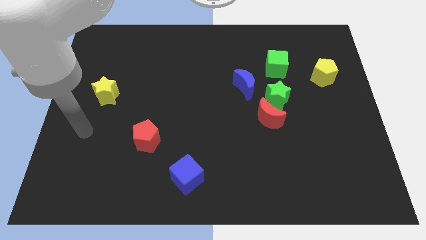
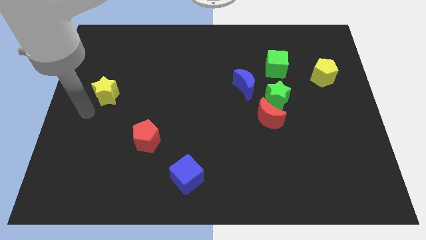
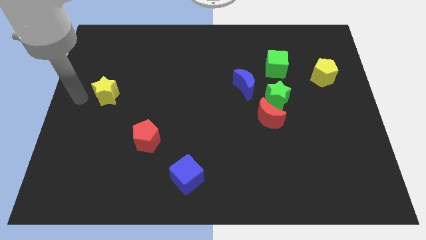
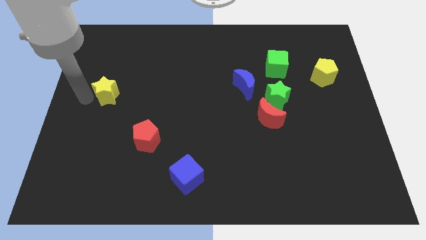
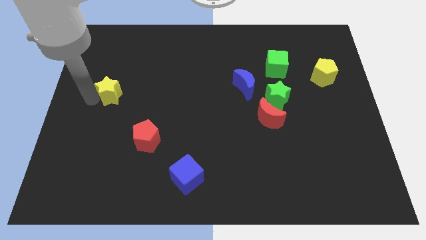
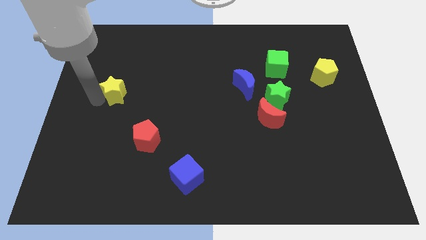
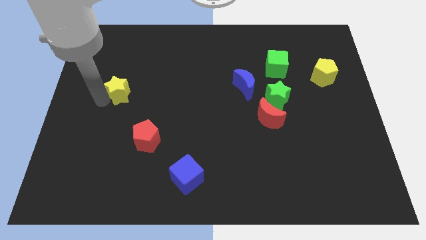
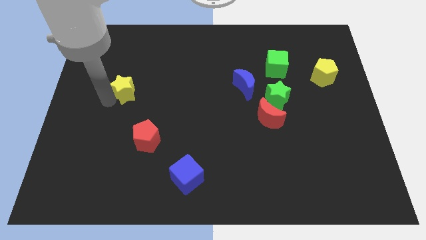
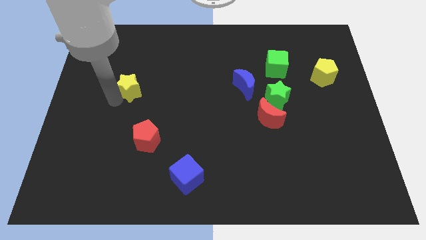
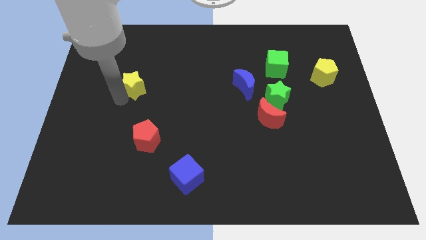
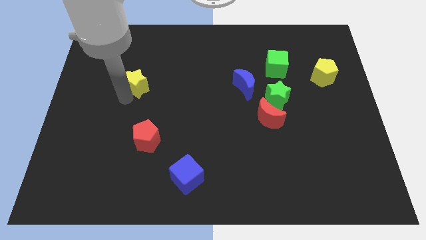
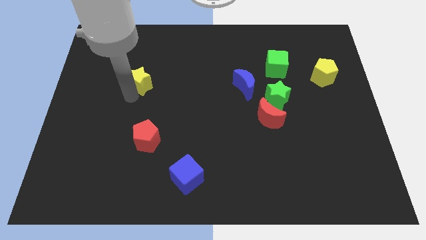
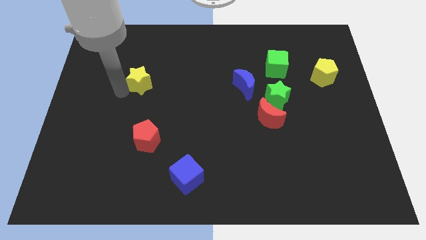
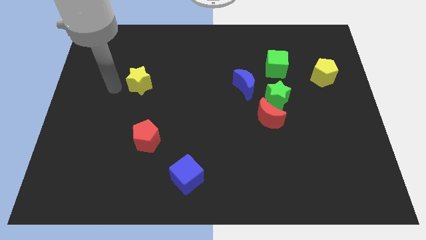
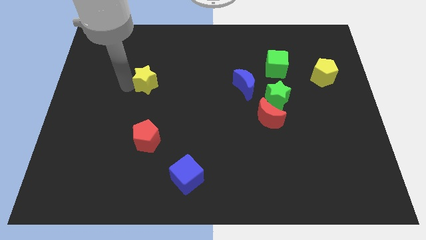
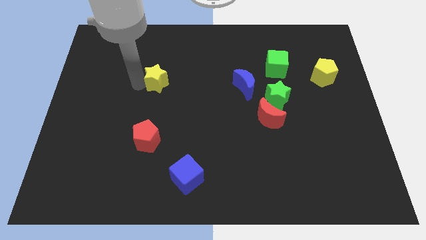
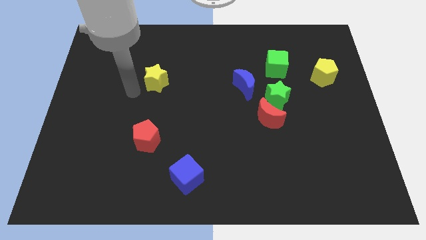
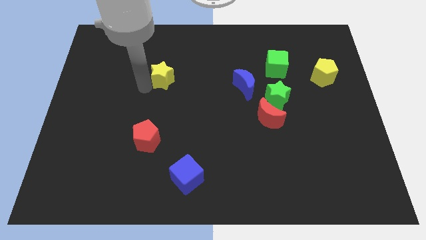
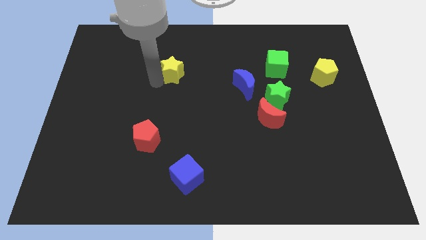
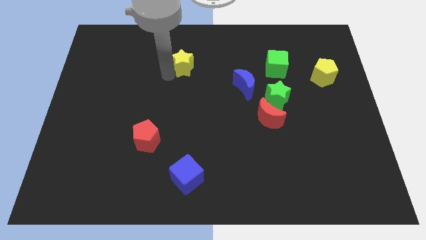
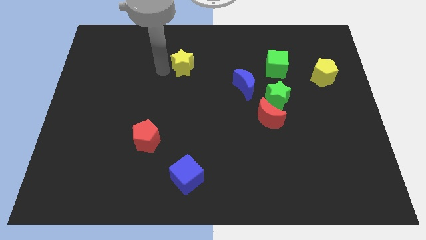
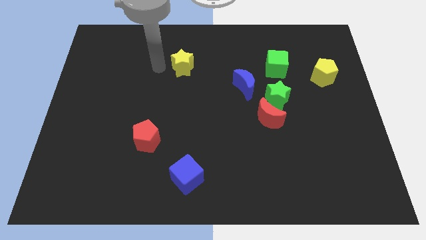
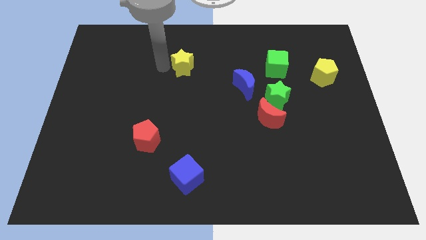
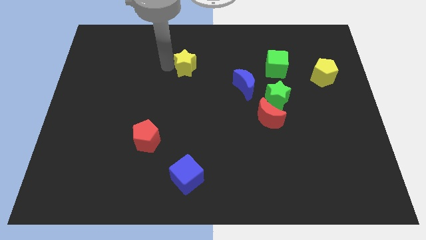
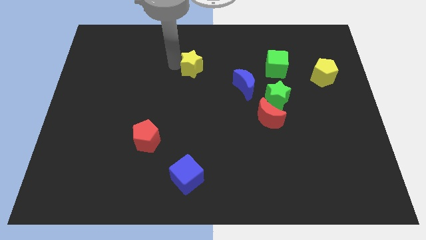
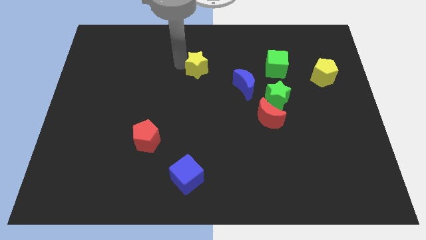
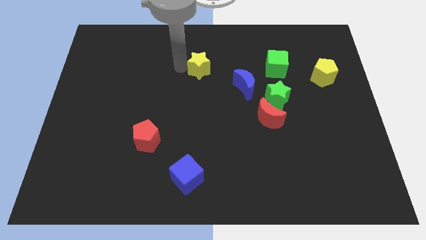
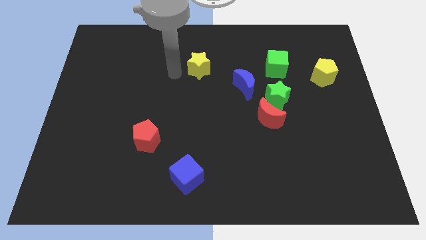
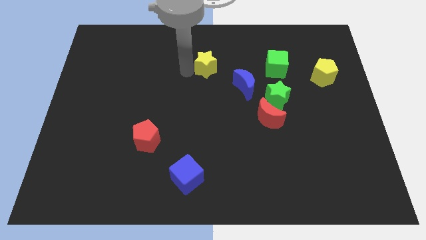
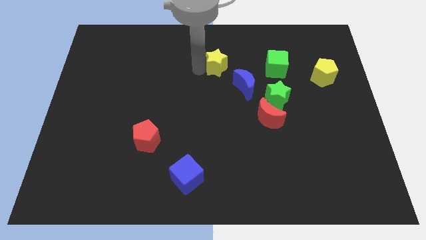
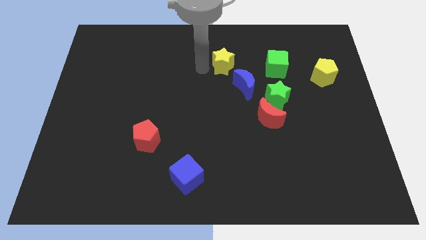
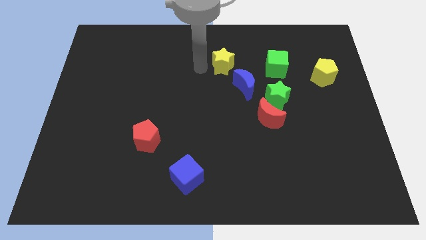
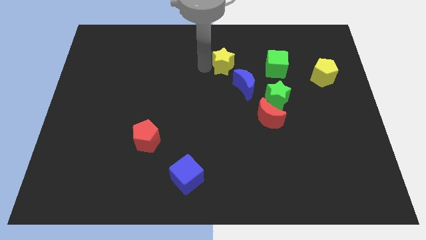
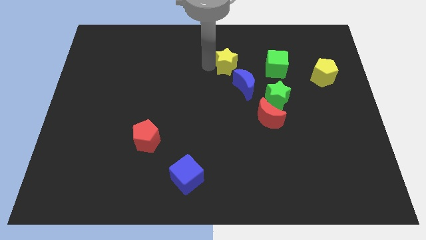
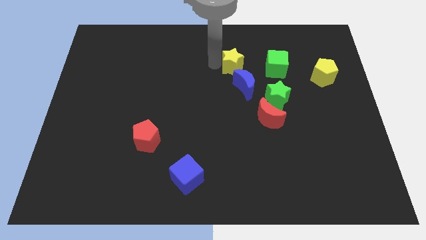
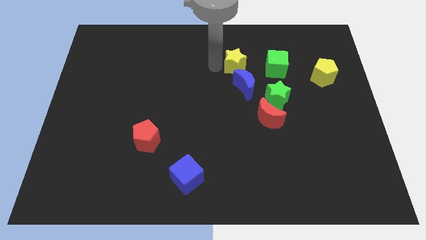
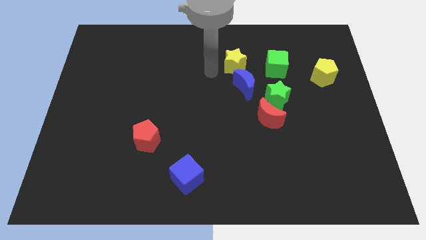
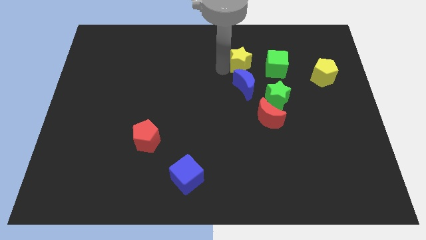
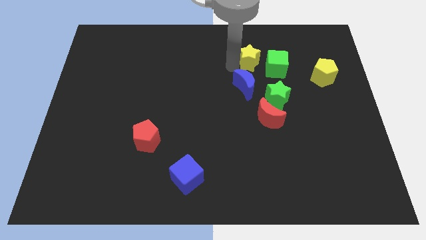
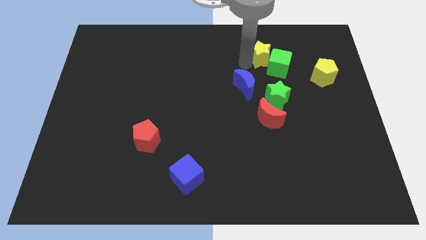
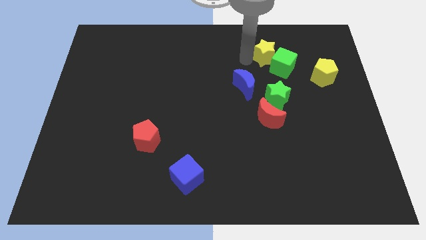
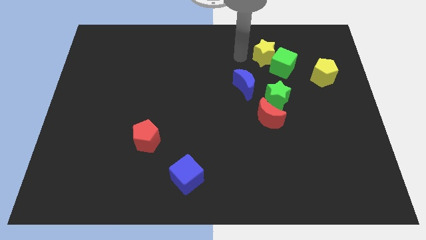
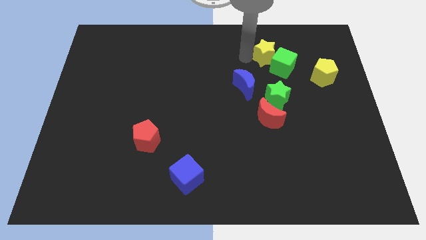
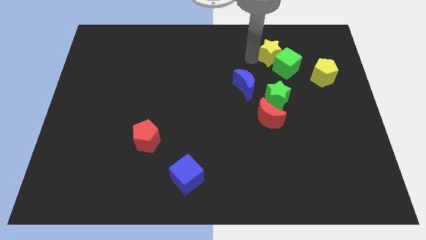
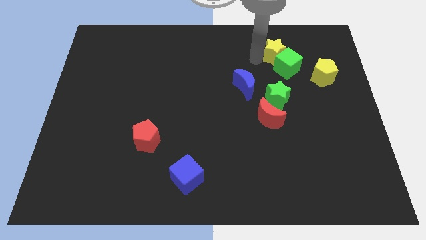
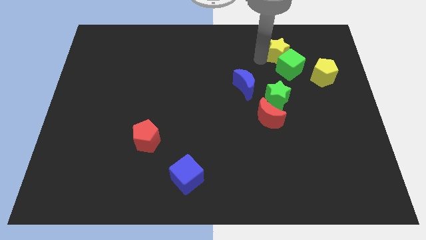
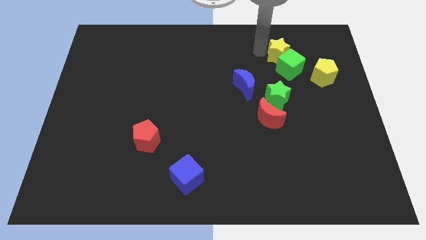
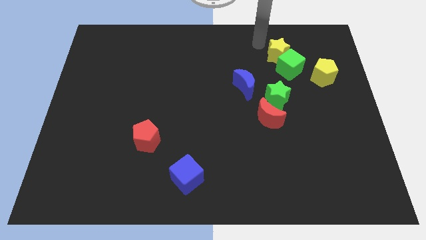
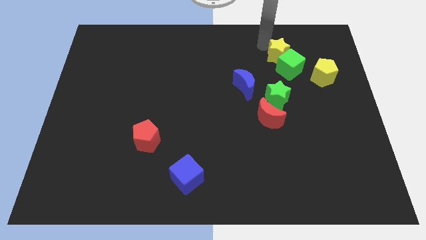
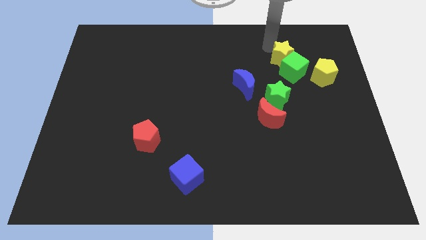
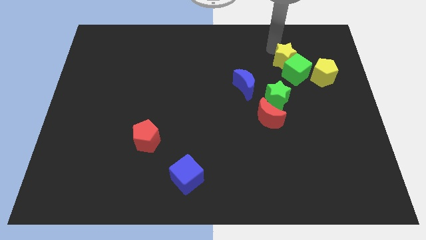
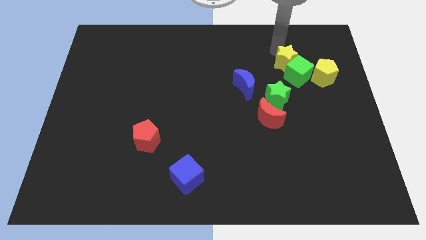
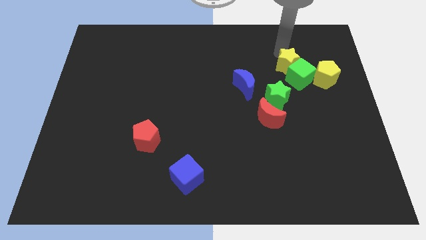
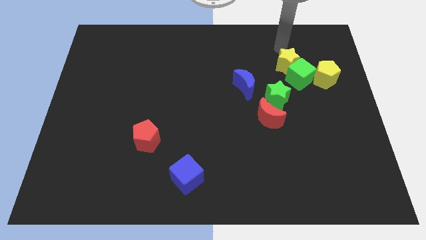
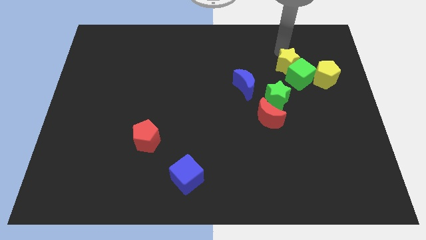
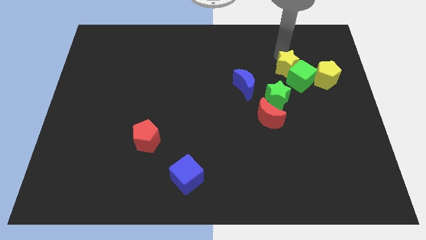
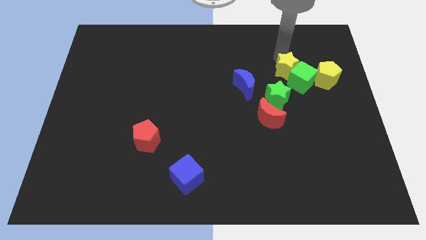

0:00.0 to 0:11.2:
move the yellow star to the top right side of the green star
